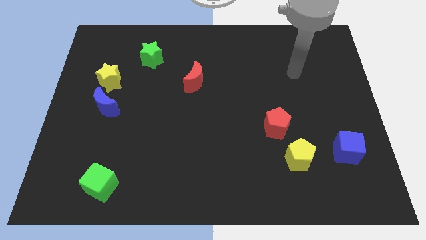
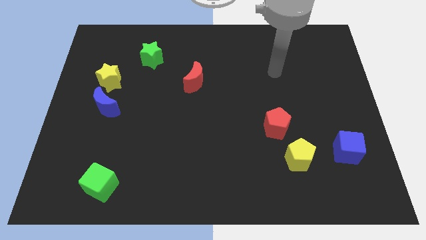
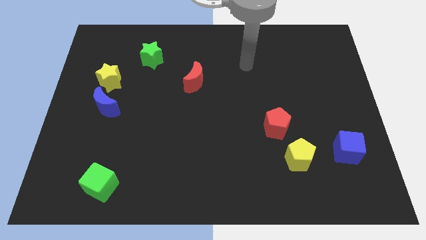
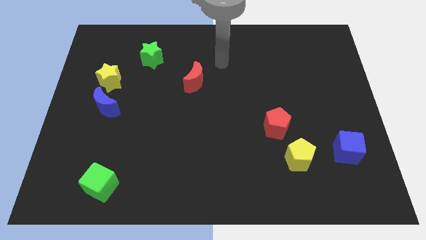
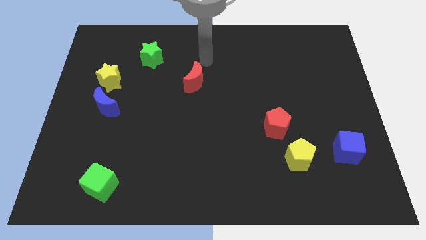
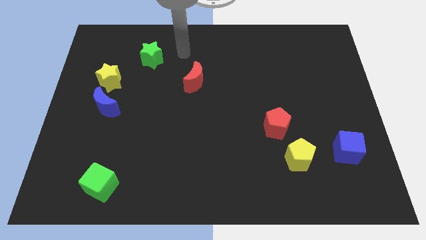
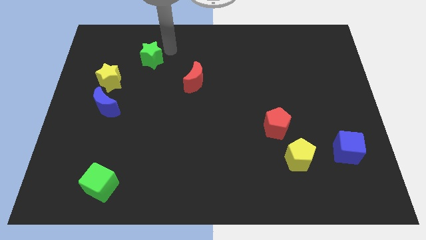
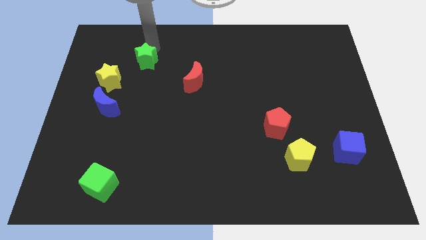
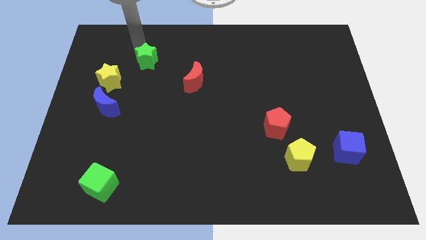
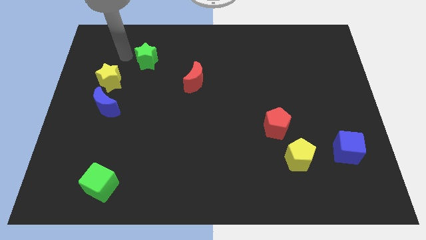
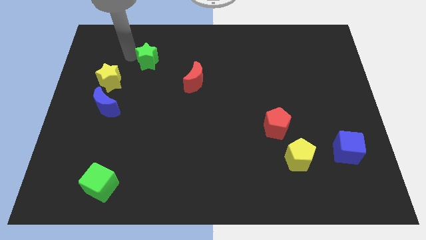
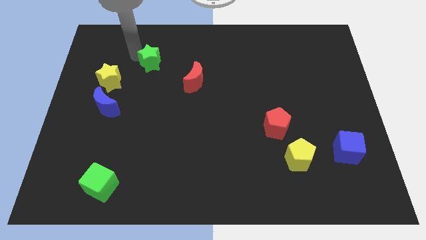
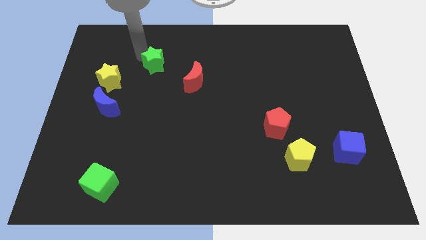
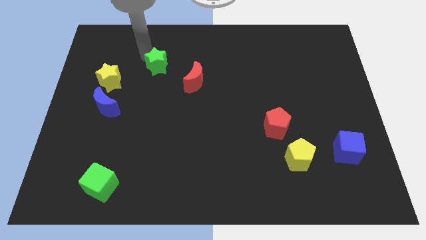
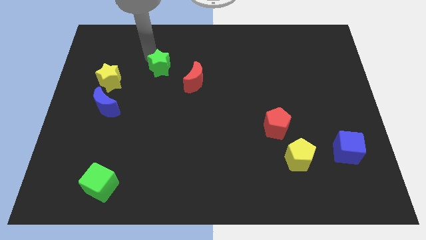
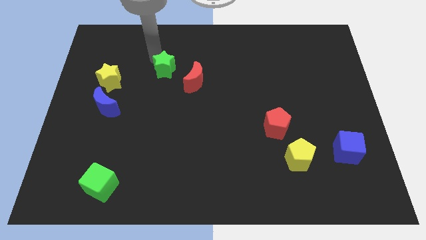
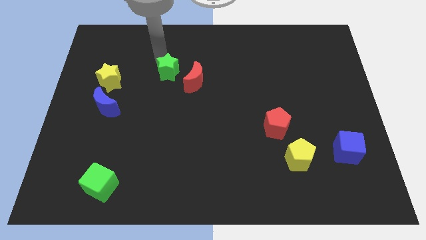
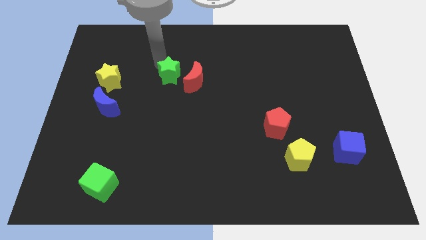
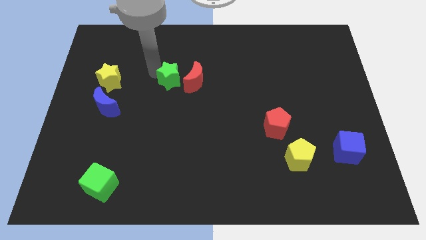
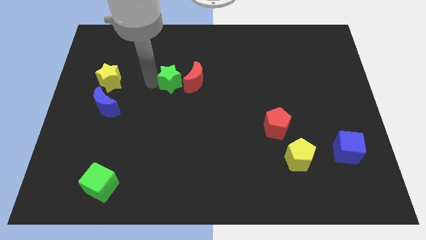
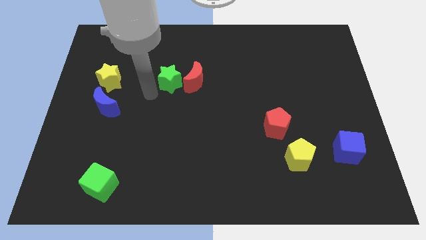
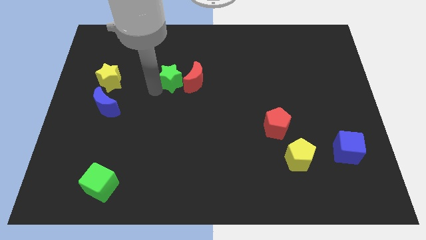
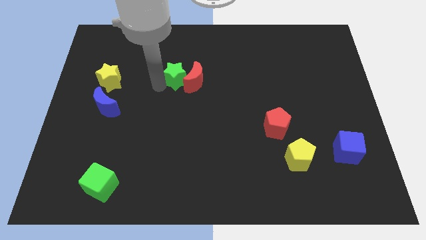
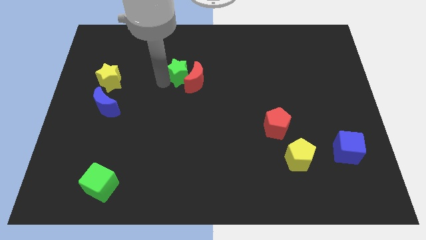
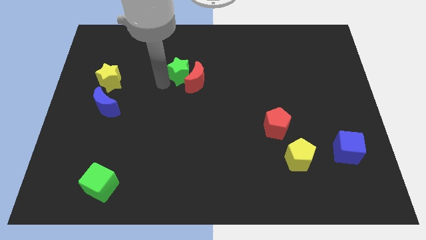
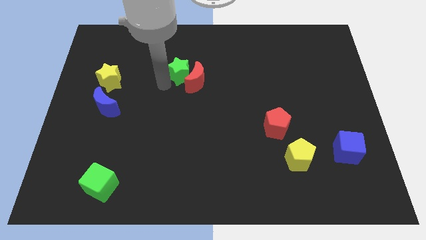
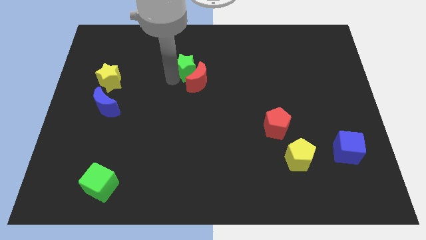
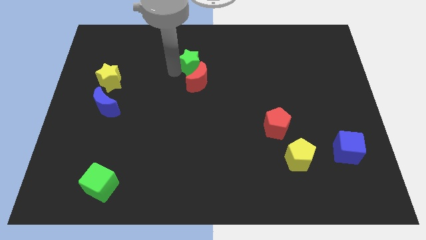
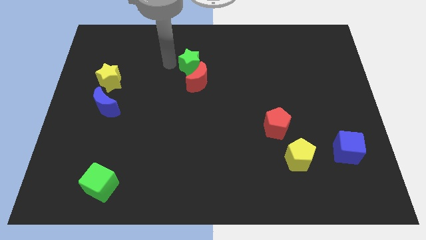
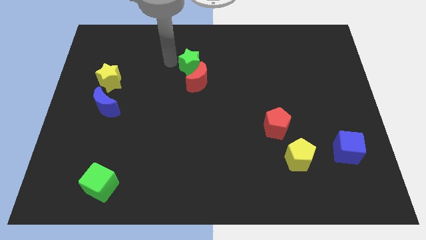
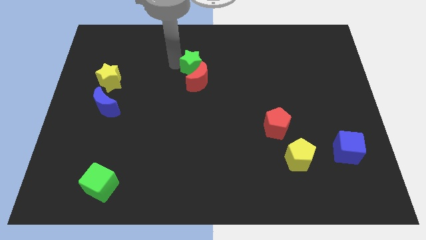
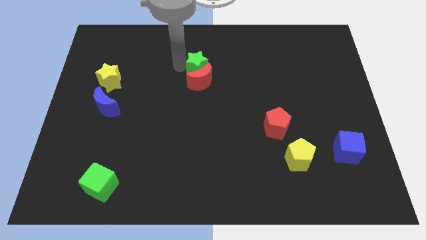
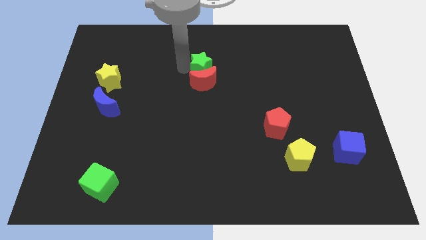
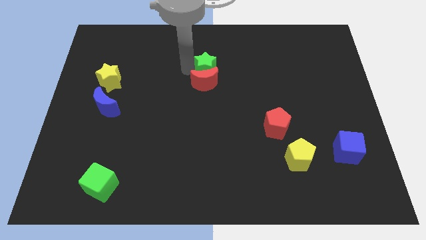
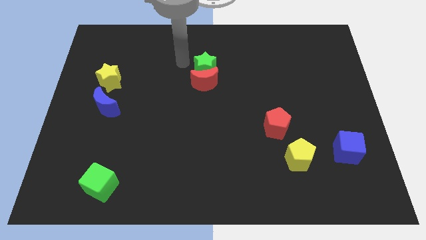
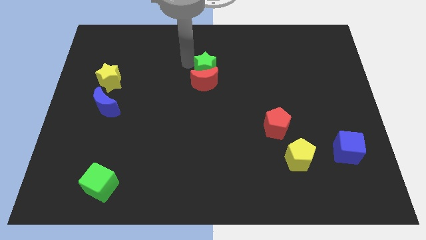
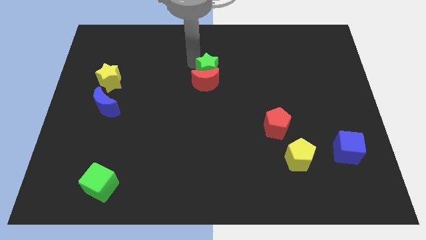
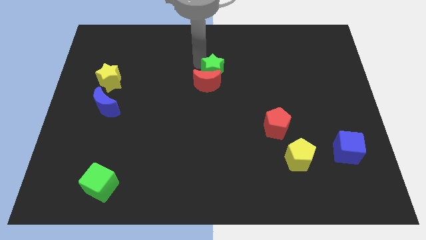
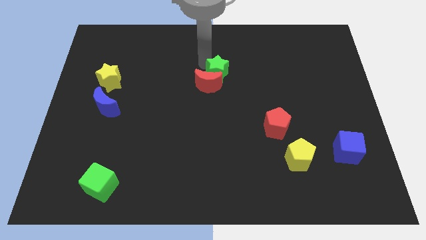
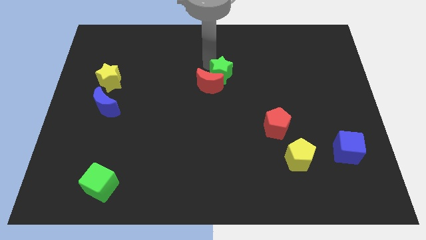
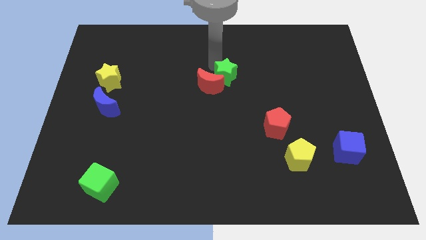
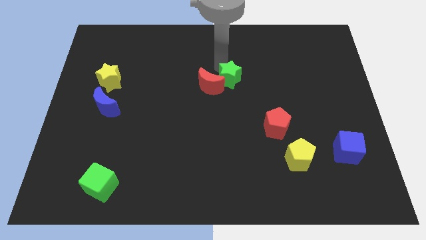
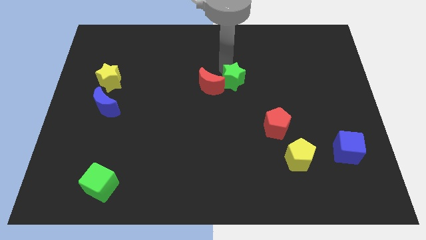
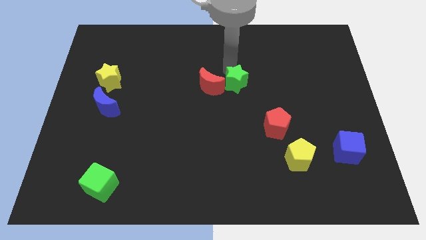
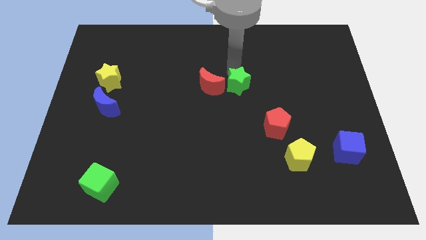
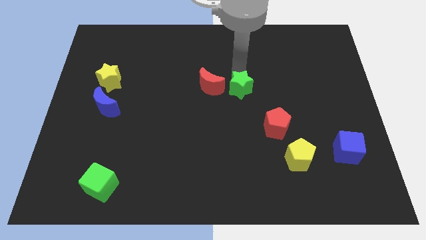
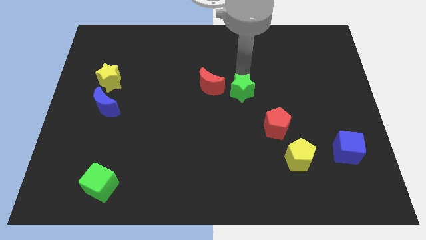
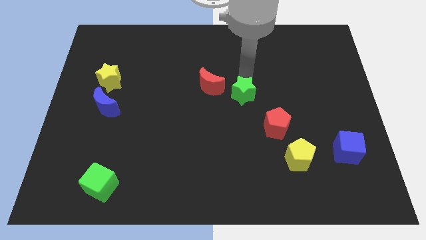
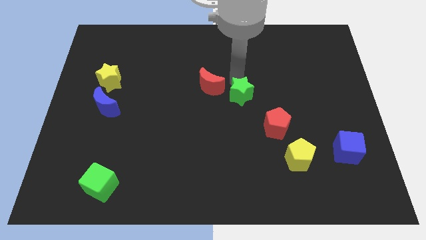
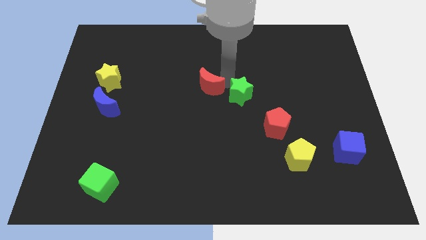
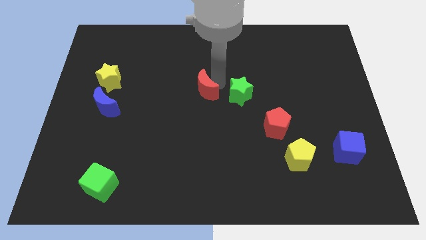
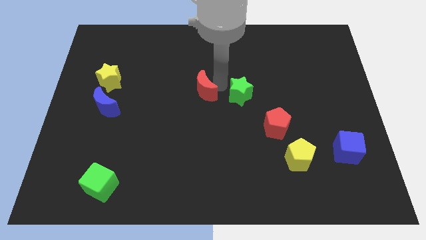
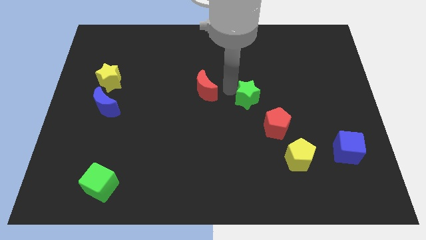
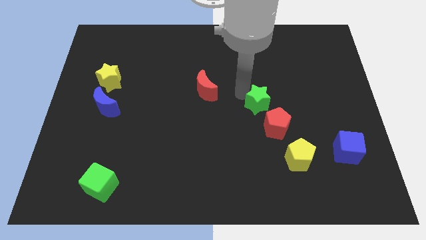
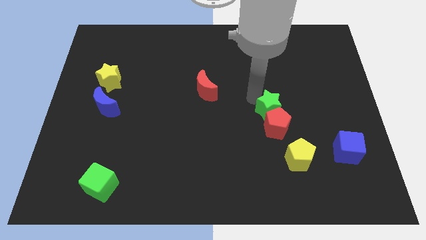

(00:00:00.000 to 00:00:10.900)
move the green star next to the red pentagon

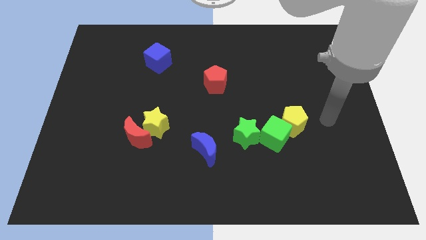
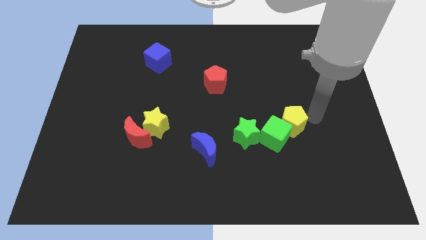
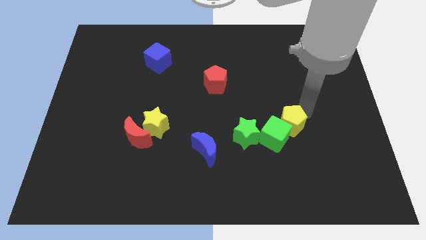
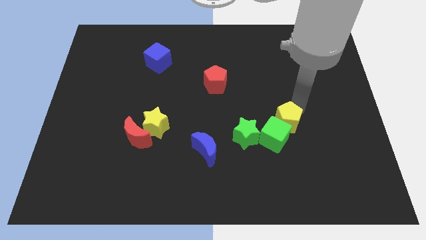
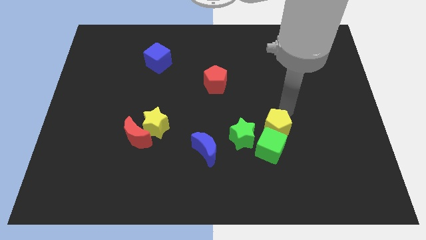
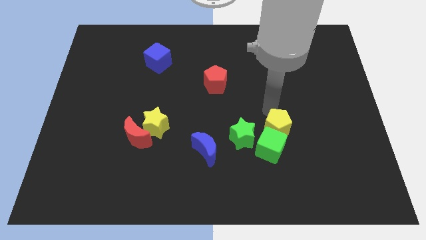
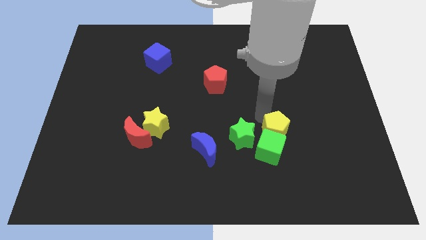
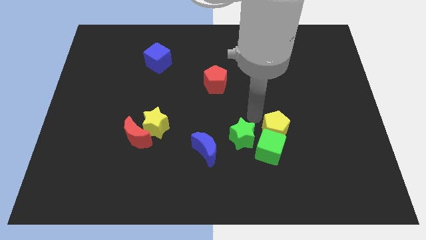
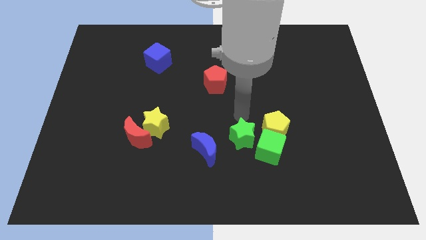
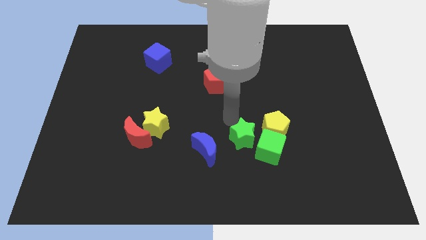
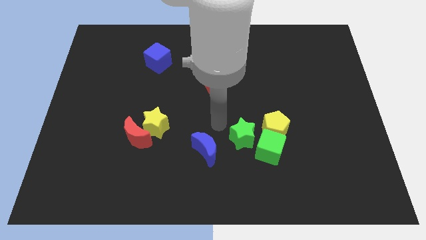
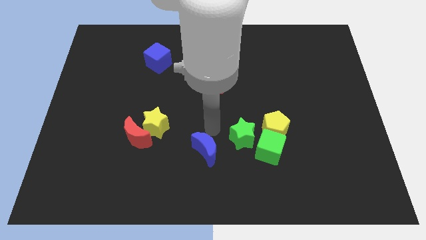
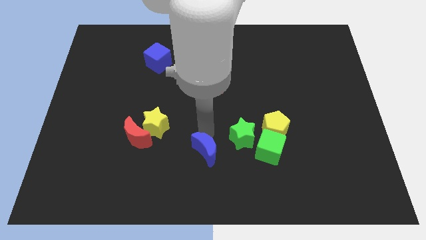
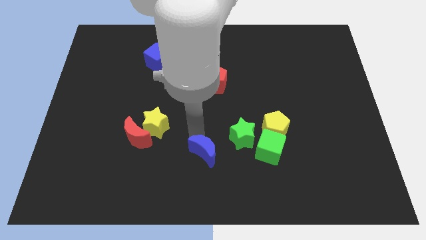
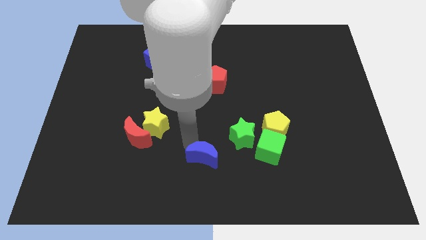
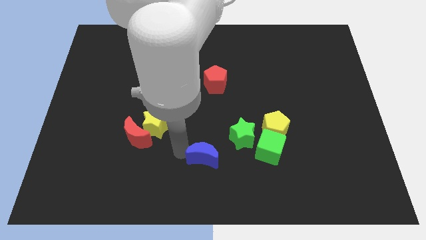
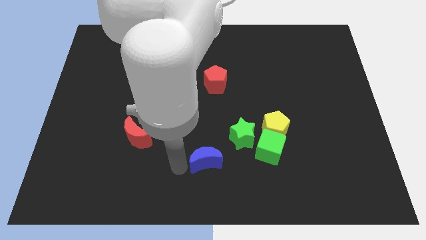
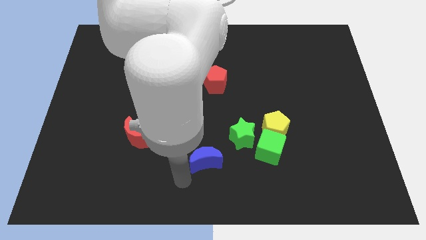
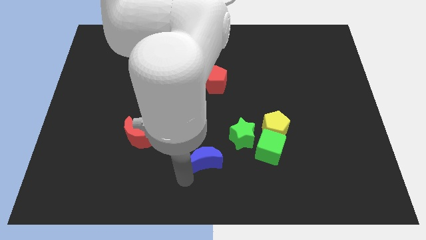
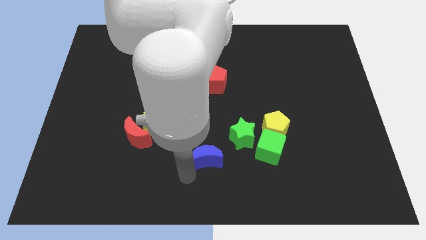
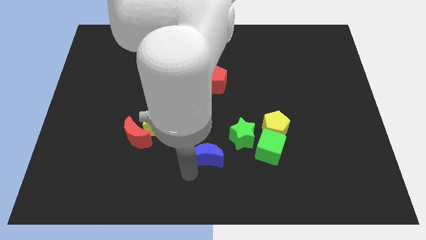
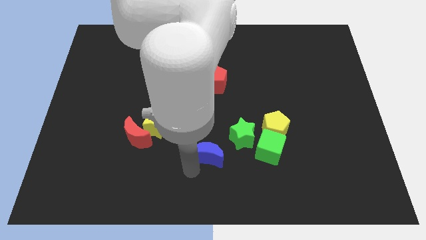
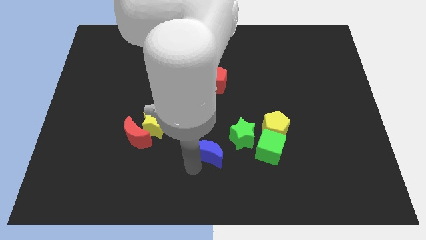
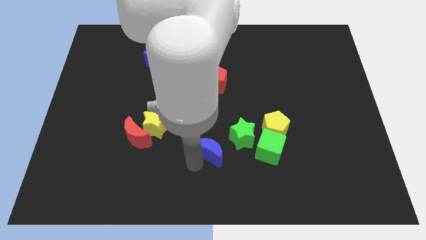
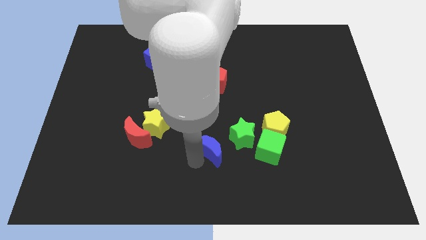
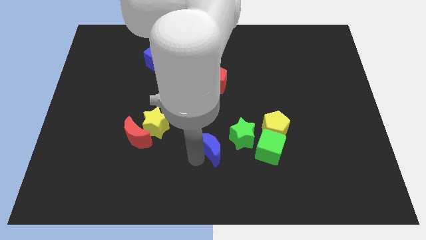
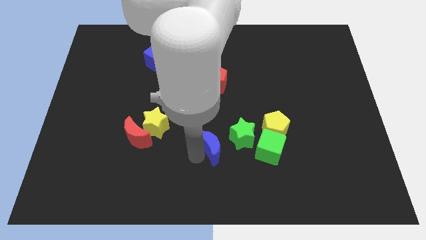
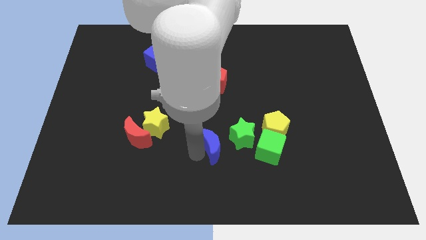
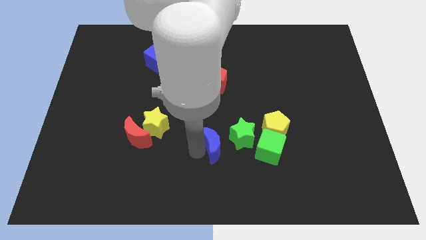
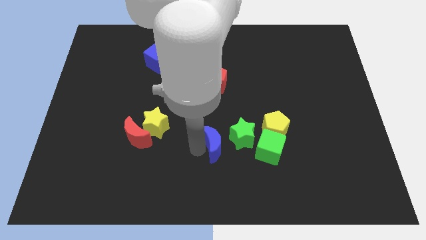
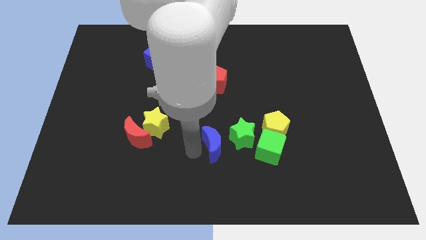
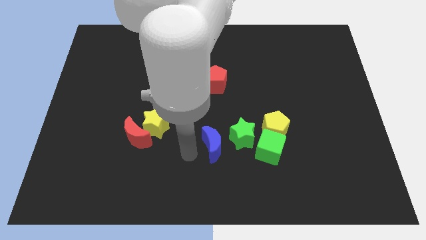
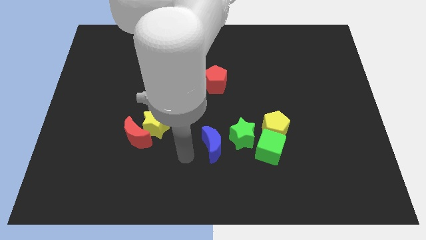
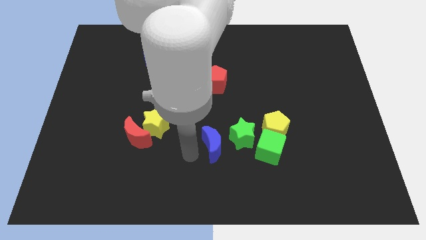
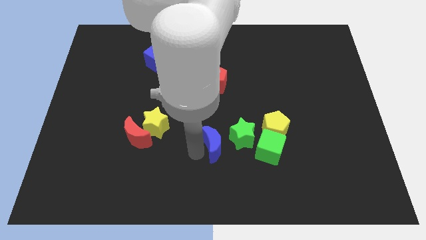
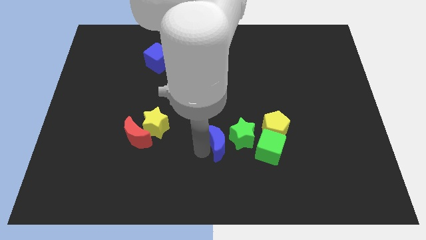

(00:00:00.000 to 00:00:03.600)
move the blue moon close to the green star
